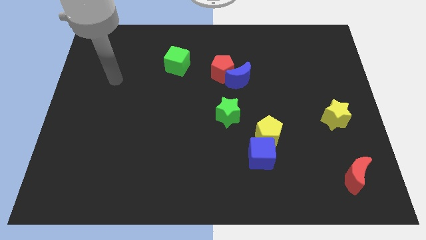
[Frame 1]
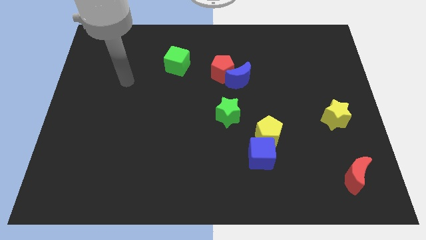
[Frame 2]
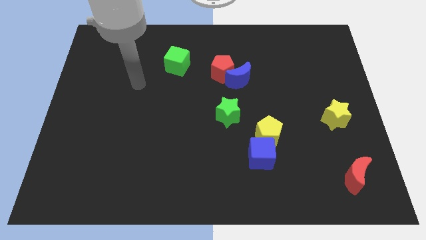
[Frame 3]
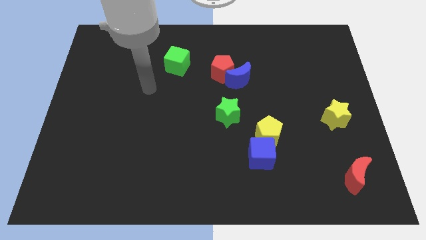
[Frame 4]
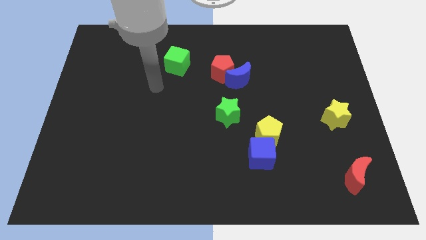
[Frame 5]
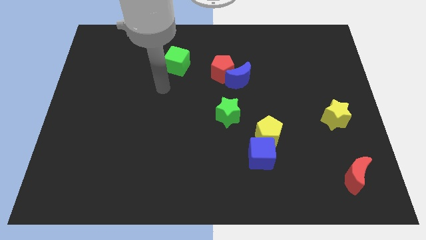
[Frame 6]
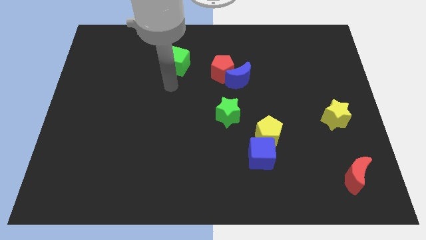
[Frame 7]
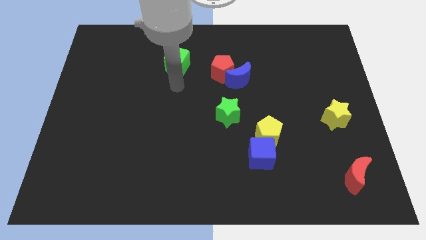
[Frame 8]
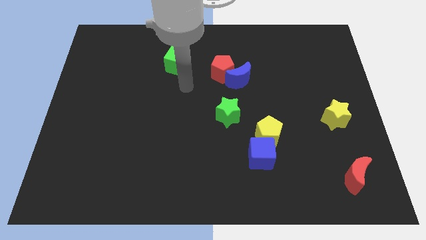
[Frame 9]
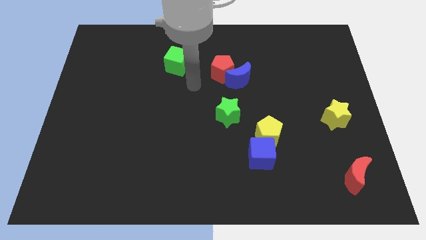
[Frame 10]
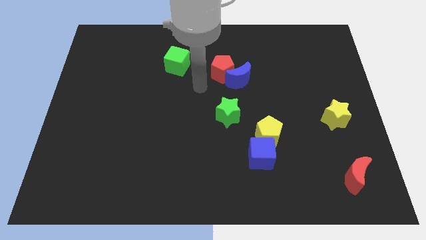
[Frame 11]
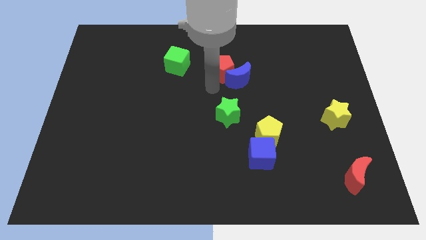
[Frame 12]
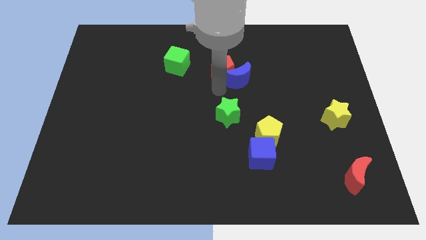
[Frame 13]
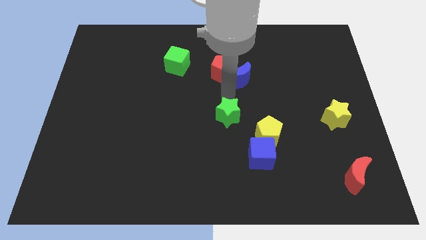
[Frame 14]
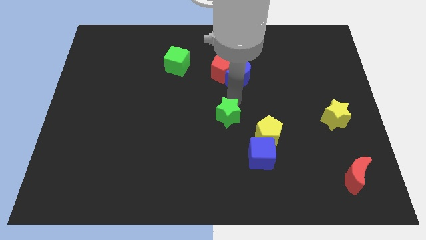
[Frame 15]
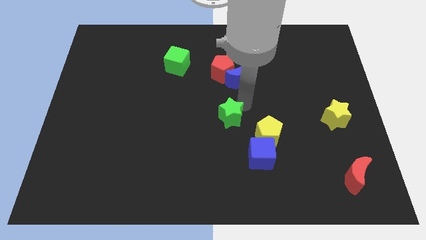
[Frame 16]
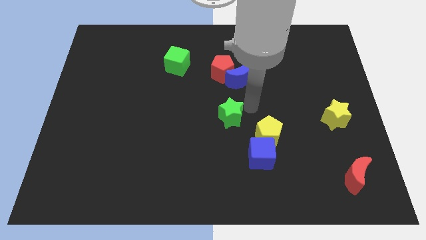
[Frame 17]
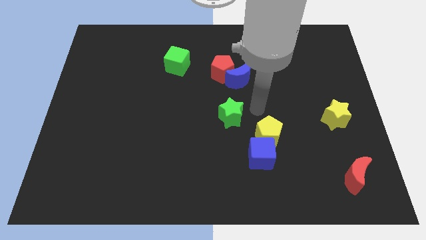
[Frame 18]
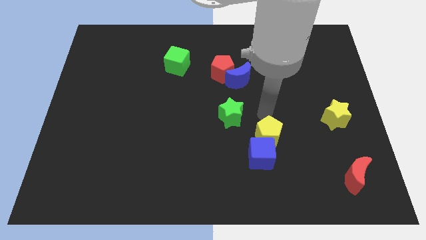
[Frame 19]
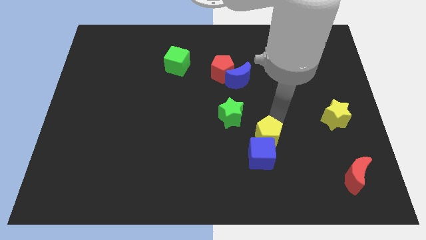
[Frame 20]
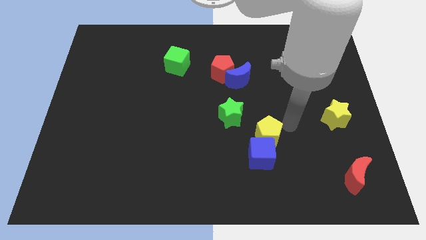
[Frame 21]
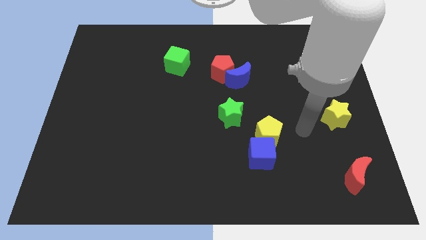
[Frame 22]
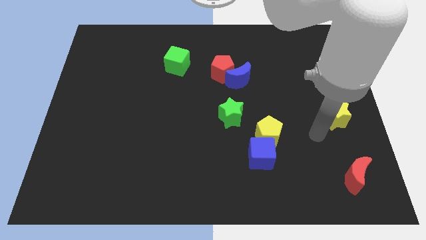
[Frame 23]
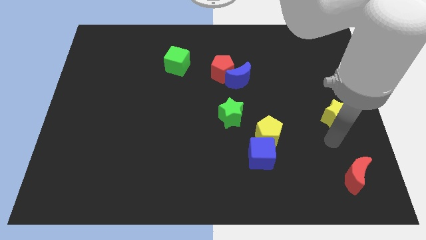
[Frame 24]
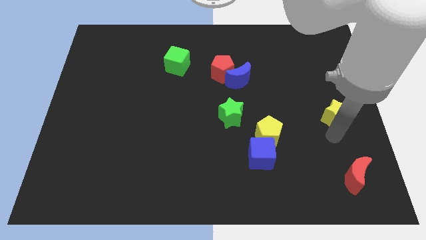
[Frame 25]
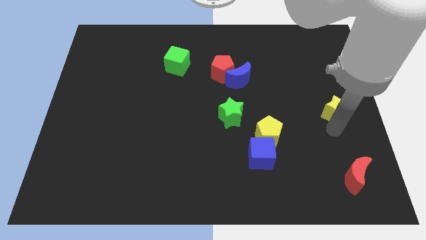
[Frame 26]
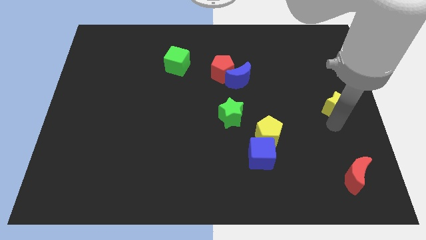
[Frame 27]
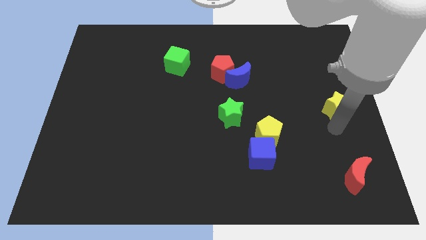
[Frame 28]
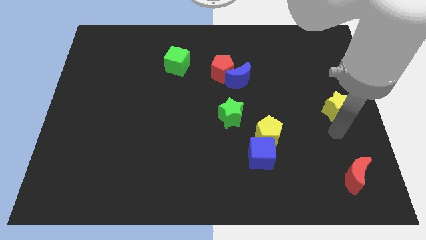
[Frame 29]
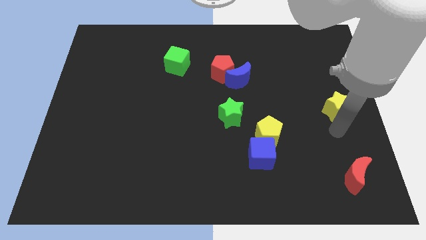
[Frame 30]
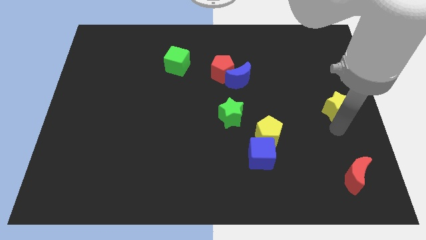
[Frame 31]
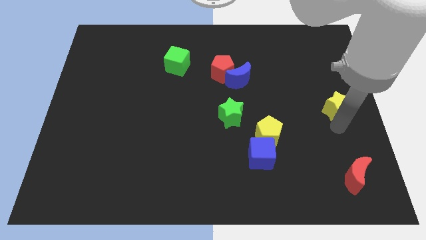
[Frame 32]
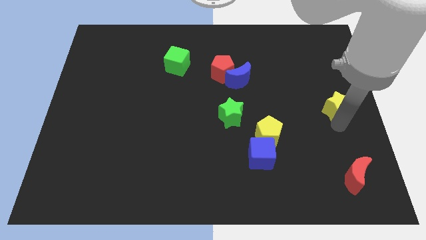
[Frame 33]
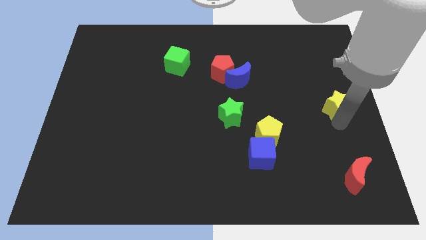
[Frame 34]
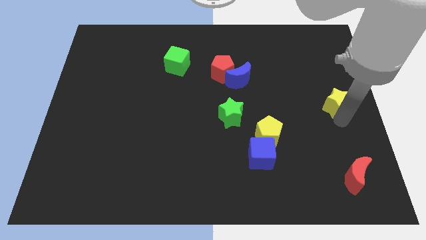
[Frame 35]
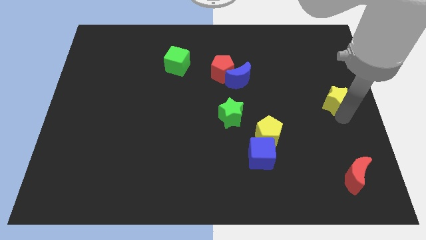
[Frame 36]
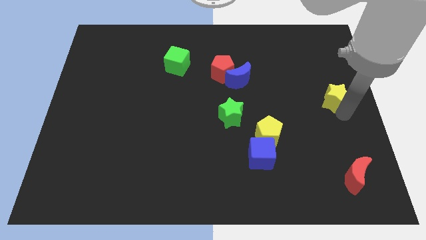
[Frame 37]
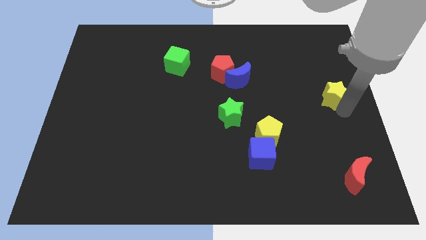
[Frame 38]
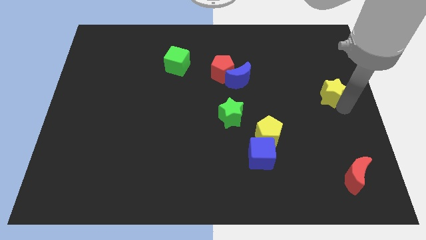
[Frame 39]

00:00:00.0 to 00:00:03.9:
push the yellow star up a little bit

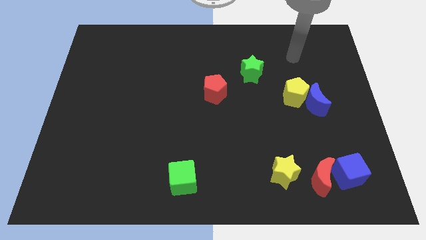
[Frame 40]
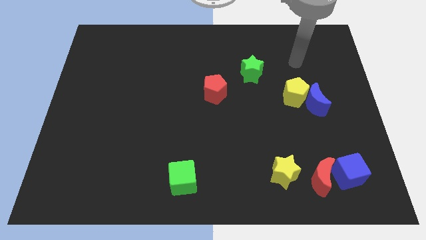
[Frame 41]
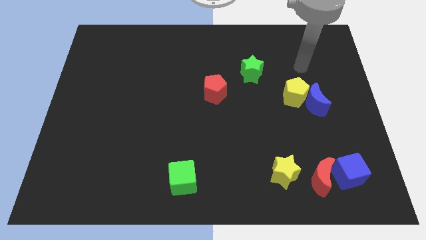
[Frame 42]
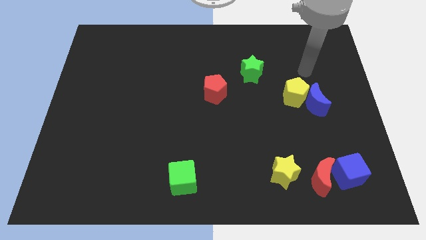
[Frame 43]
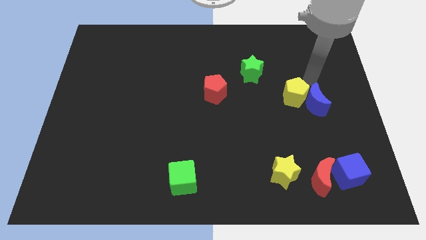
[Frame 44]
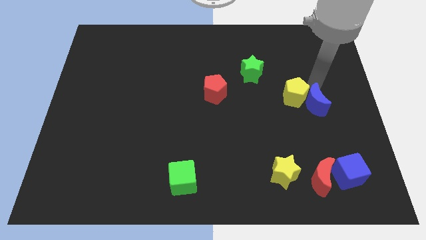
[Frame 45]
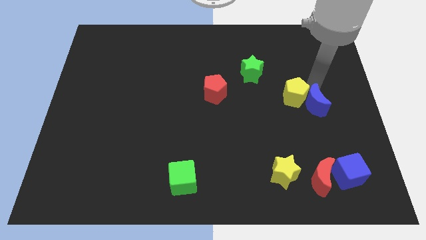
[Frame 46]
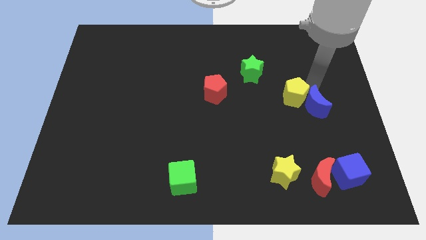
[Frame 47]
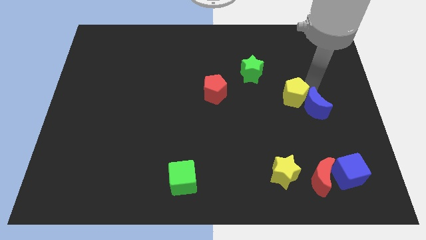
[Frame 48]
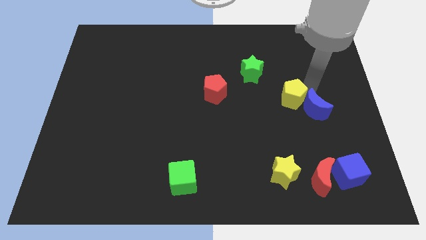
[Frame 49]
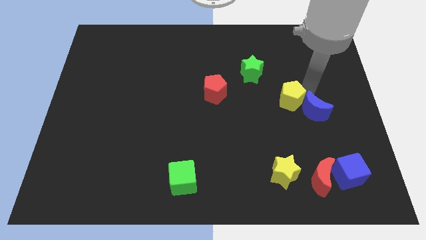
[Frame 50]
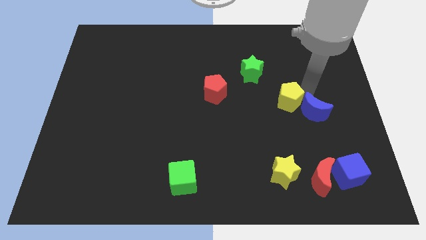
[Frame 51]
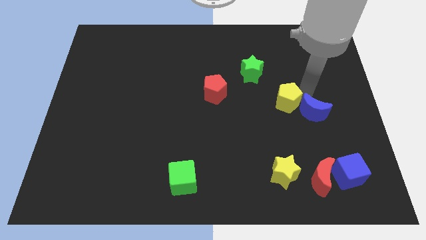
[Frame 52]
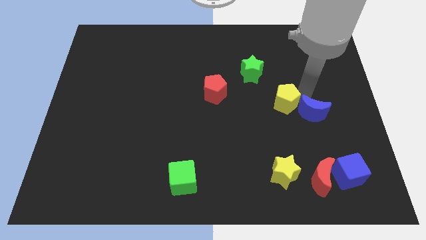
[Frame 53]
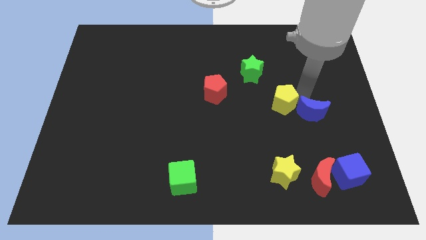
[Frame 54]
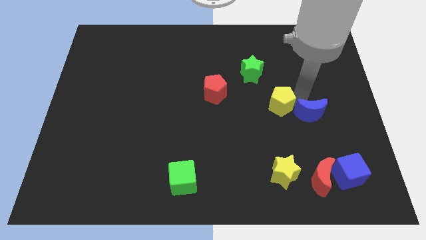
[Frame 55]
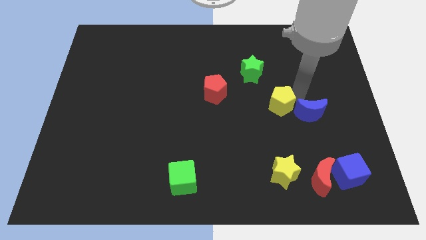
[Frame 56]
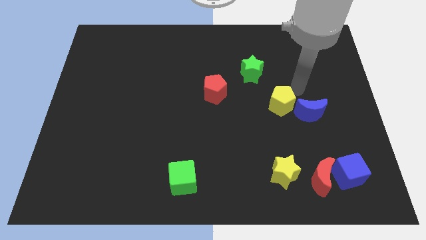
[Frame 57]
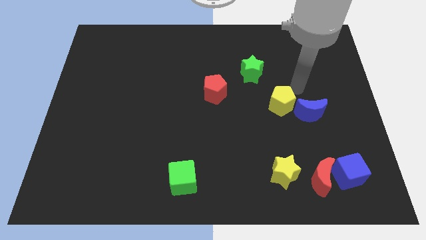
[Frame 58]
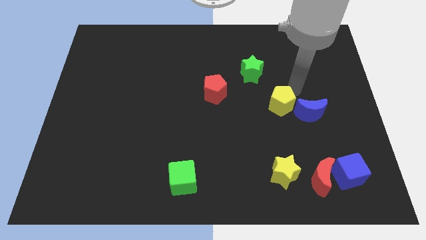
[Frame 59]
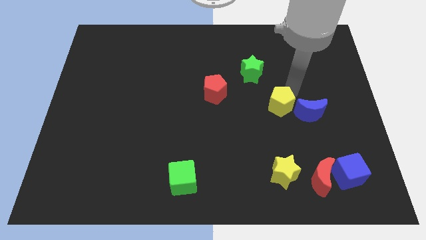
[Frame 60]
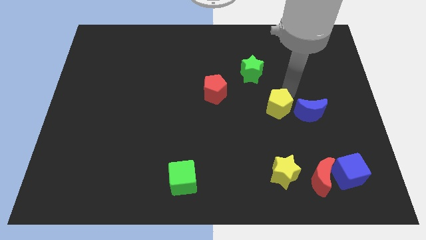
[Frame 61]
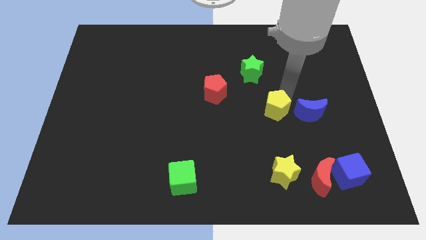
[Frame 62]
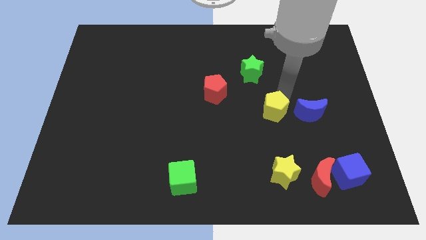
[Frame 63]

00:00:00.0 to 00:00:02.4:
push the yellow pentagon a bit downwards and then left

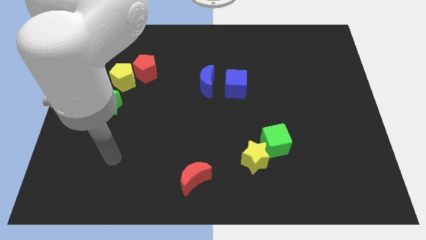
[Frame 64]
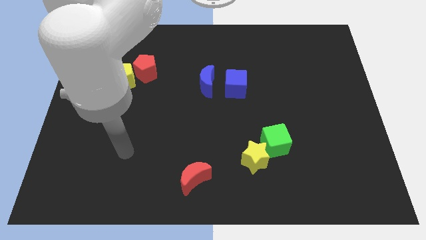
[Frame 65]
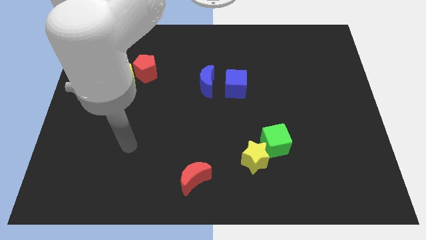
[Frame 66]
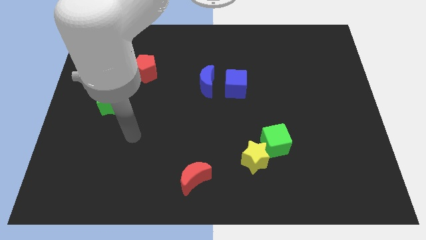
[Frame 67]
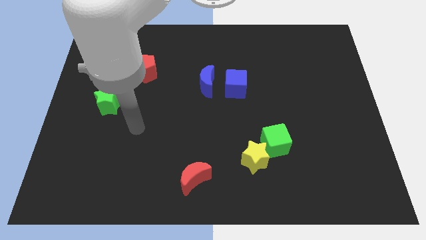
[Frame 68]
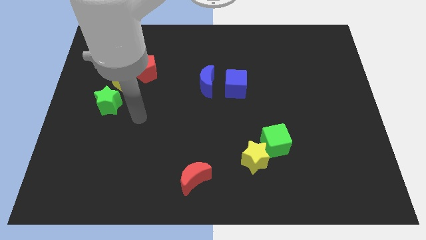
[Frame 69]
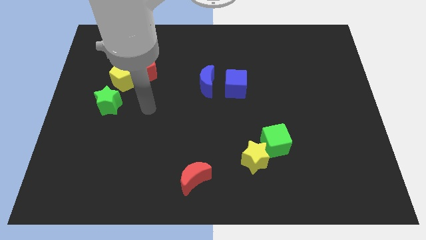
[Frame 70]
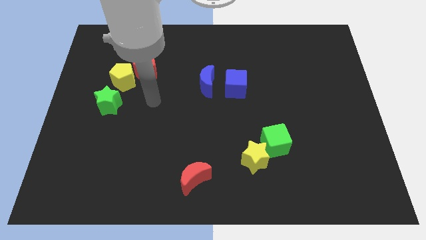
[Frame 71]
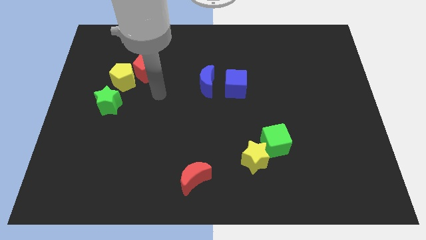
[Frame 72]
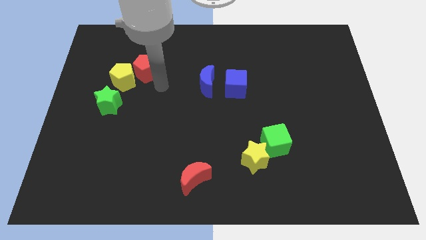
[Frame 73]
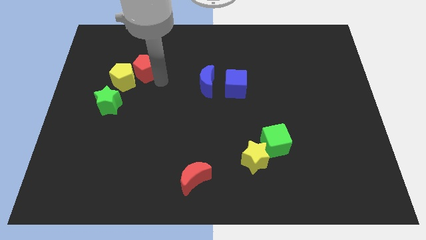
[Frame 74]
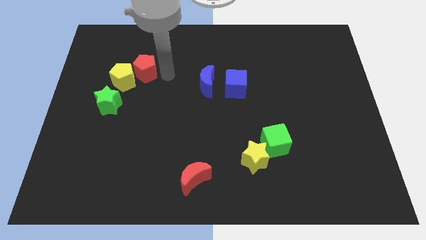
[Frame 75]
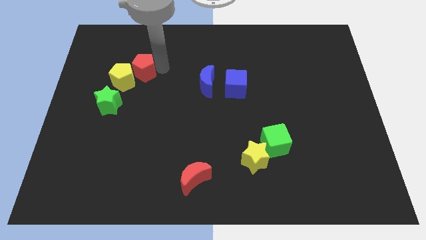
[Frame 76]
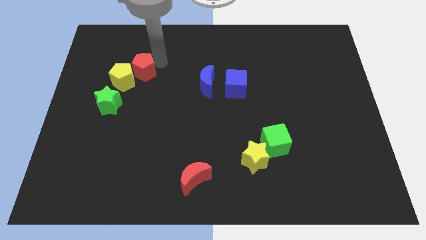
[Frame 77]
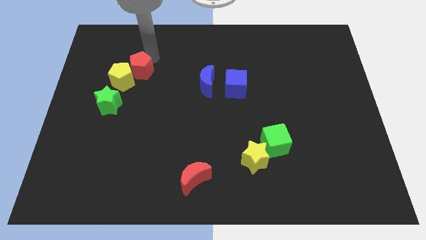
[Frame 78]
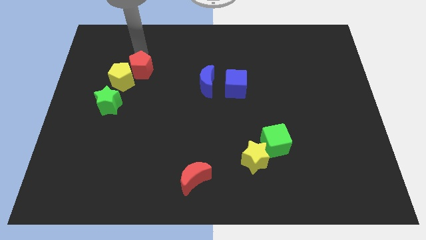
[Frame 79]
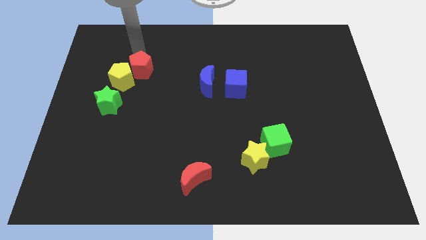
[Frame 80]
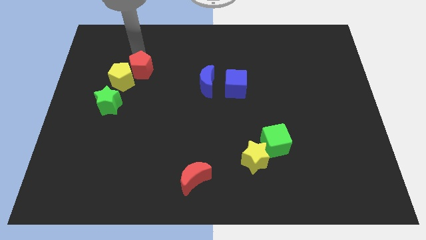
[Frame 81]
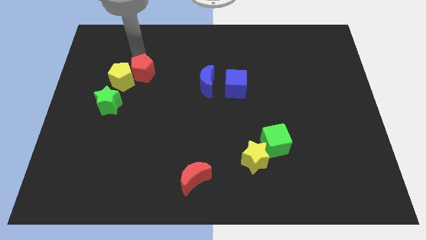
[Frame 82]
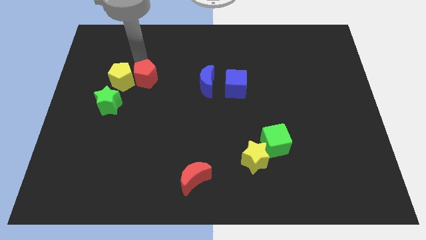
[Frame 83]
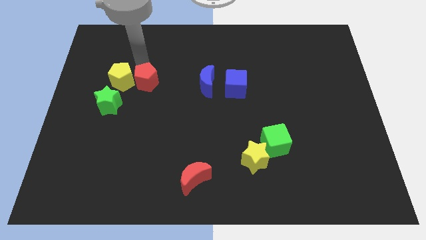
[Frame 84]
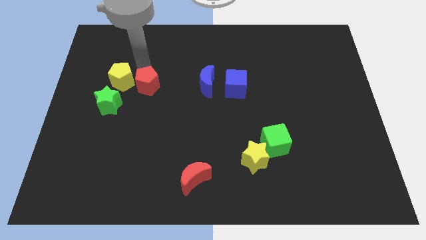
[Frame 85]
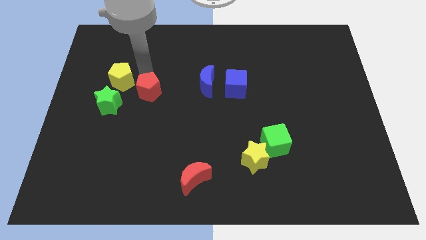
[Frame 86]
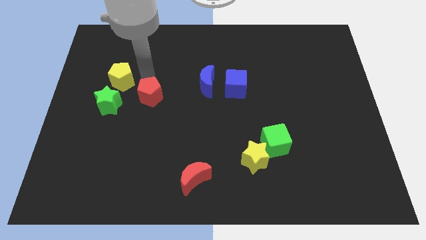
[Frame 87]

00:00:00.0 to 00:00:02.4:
push the red pentagon downwards a little
